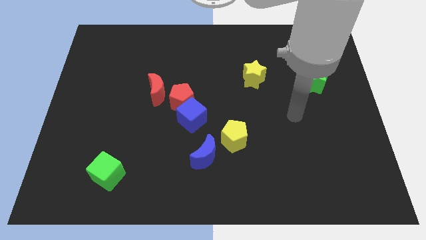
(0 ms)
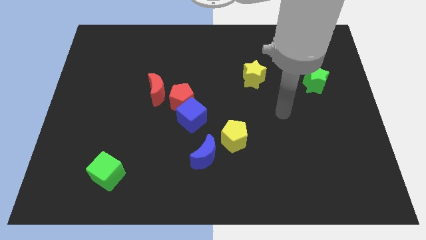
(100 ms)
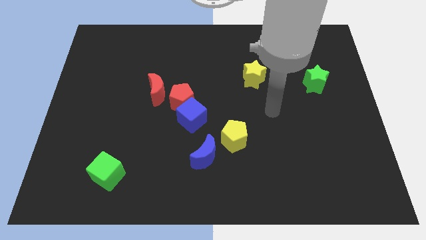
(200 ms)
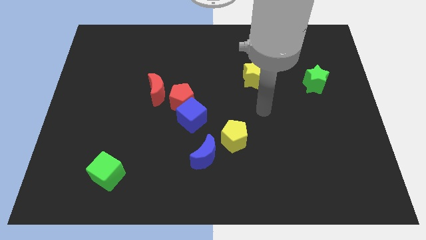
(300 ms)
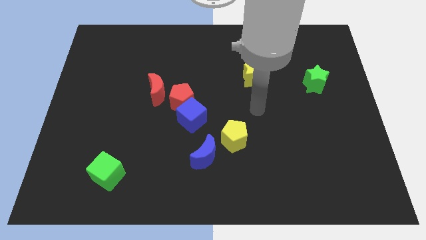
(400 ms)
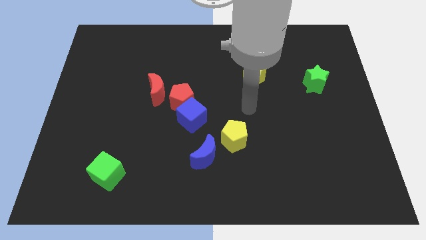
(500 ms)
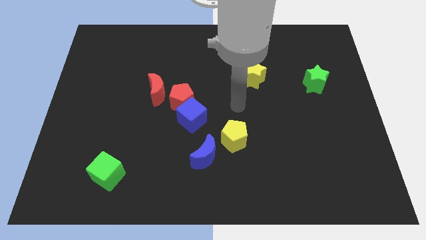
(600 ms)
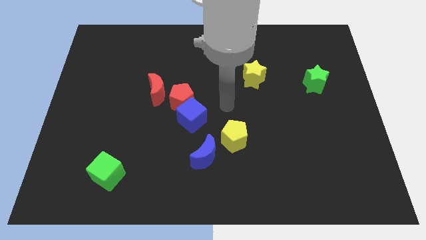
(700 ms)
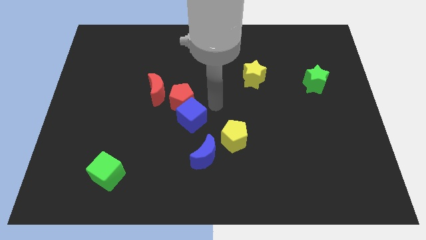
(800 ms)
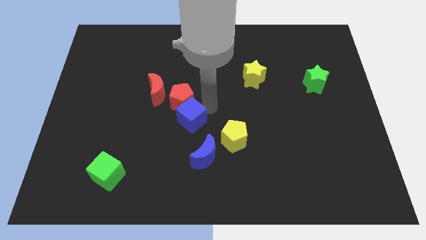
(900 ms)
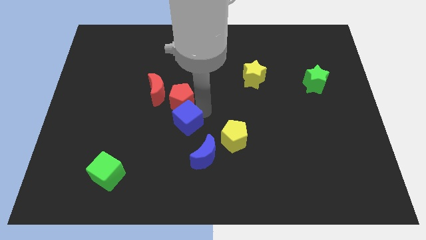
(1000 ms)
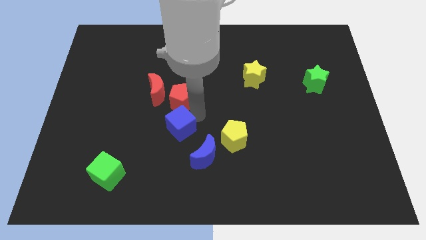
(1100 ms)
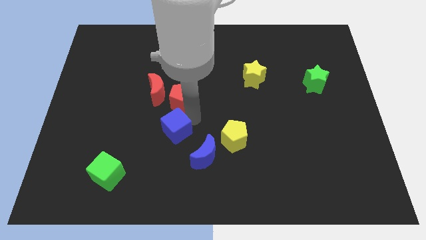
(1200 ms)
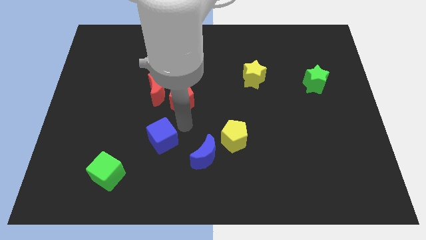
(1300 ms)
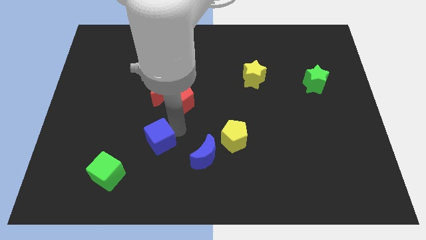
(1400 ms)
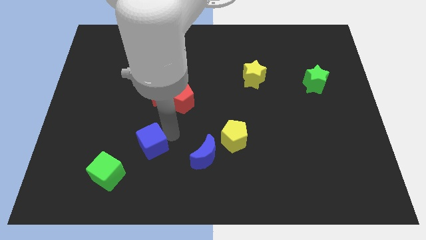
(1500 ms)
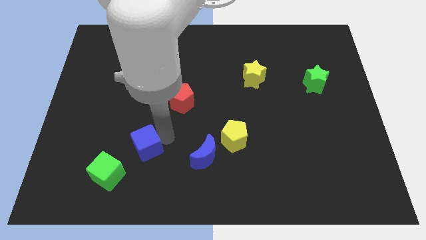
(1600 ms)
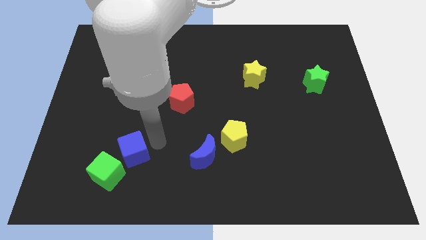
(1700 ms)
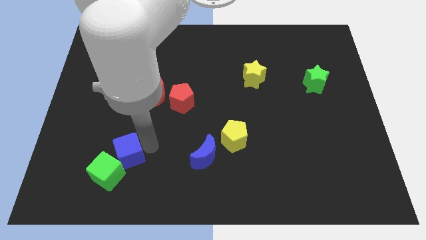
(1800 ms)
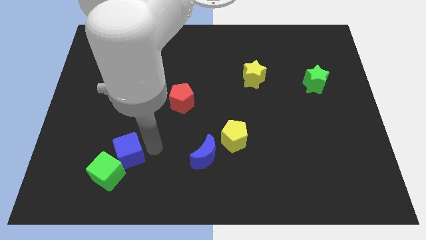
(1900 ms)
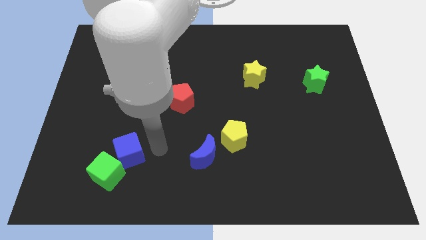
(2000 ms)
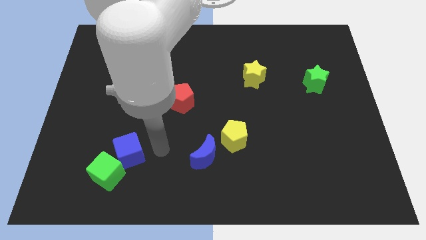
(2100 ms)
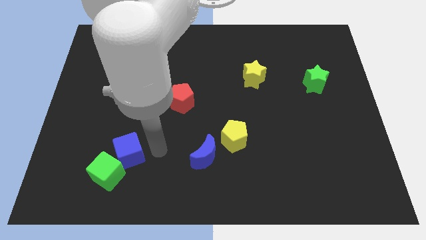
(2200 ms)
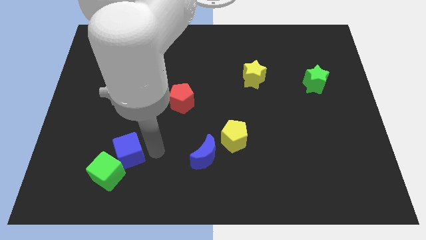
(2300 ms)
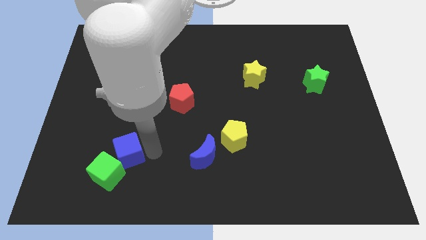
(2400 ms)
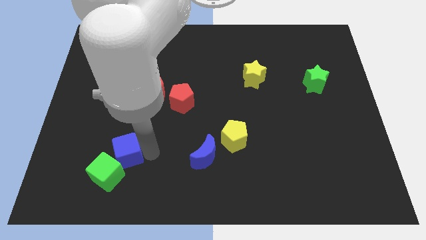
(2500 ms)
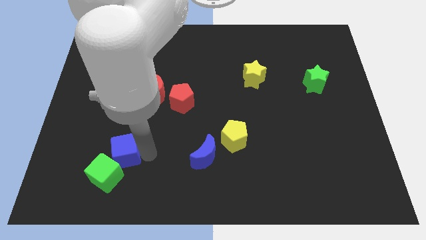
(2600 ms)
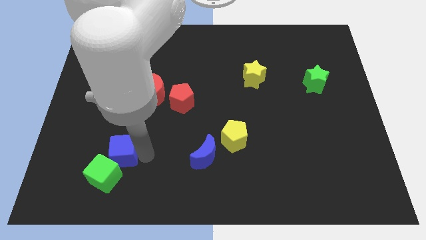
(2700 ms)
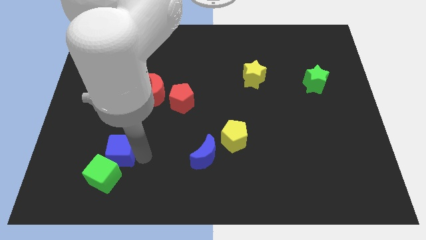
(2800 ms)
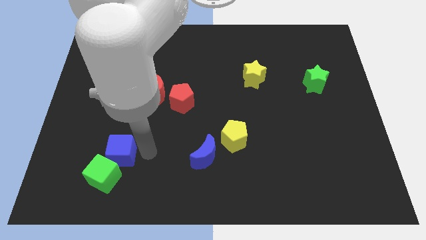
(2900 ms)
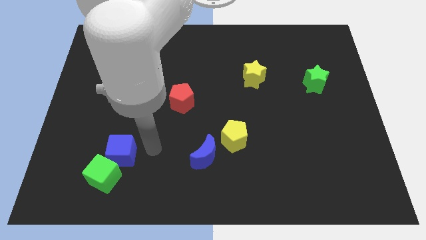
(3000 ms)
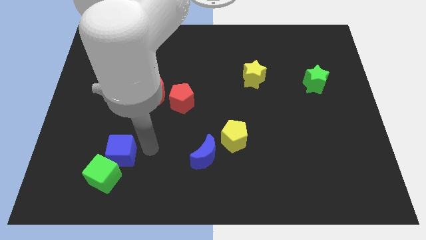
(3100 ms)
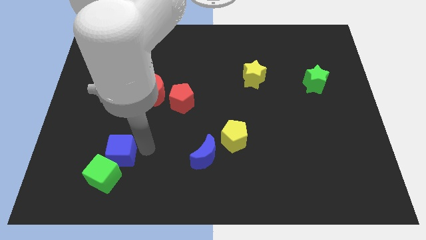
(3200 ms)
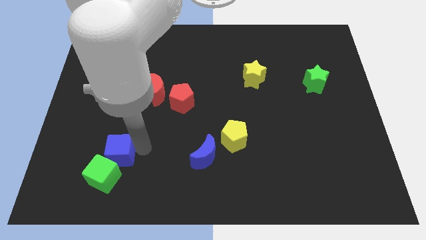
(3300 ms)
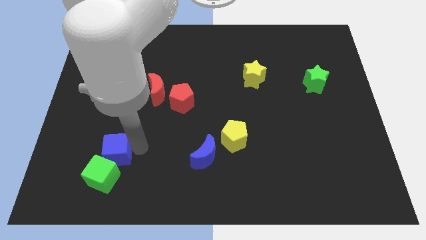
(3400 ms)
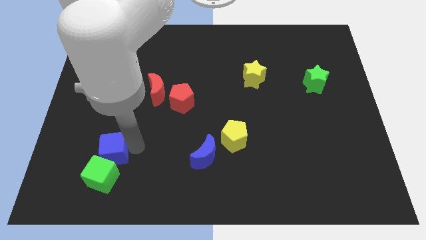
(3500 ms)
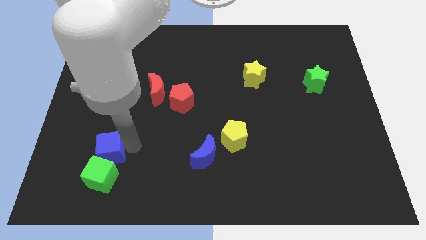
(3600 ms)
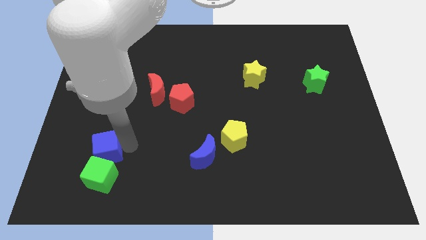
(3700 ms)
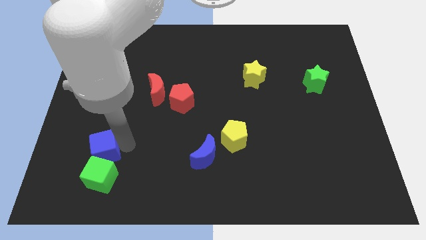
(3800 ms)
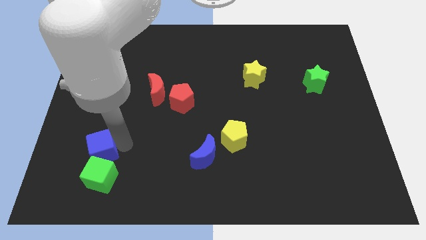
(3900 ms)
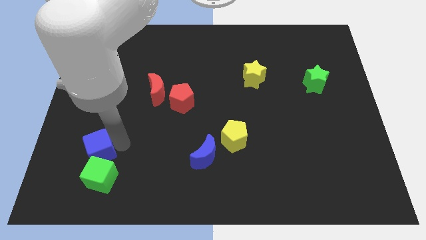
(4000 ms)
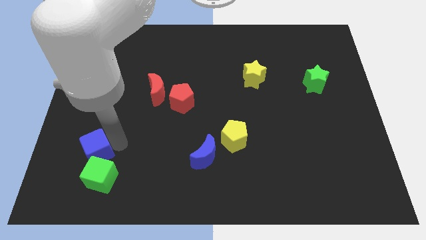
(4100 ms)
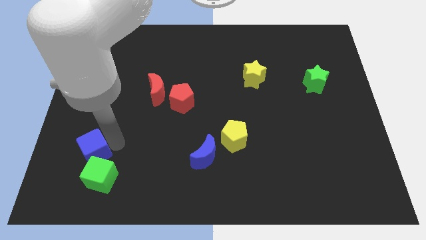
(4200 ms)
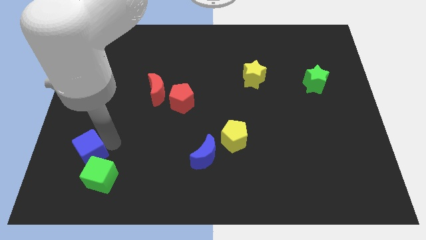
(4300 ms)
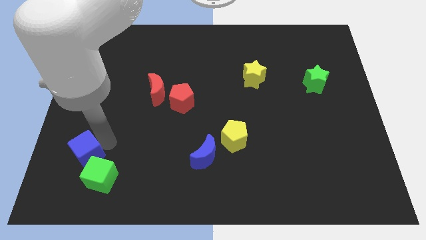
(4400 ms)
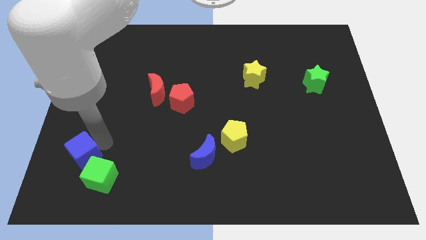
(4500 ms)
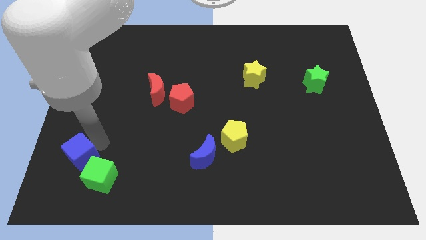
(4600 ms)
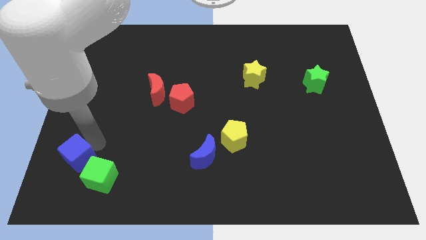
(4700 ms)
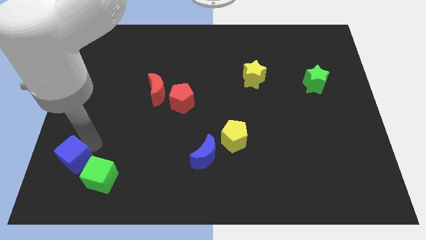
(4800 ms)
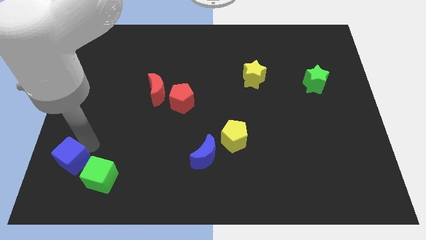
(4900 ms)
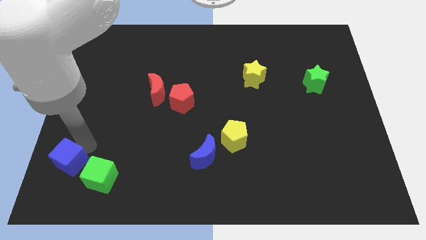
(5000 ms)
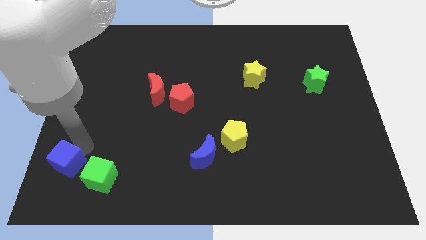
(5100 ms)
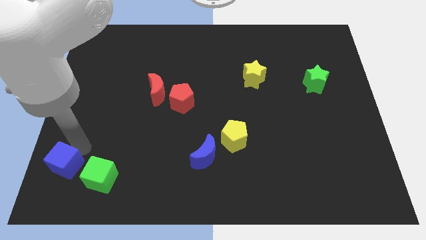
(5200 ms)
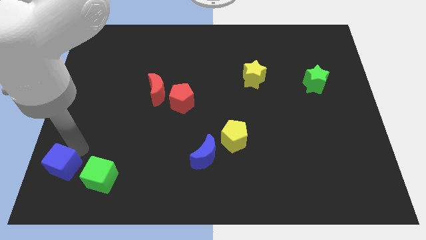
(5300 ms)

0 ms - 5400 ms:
put the blue cube to the bottom left

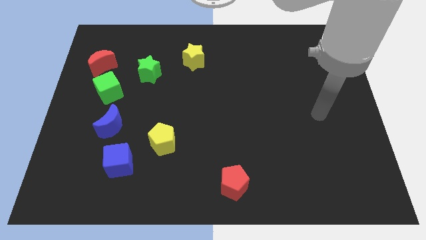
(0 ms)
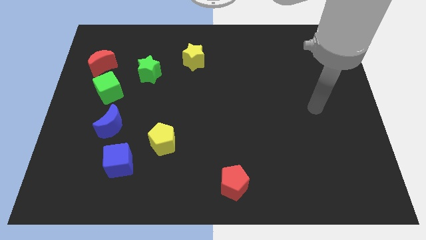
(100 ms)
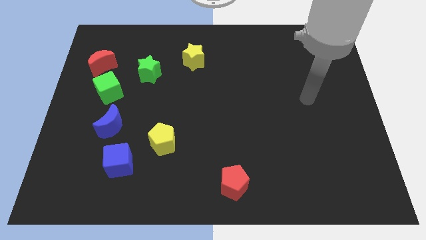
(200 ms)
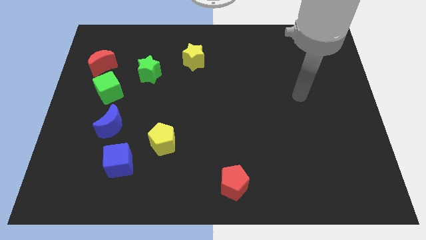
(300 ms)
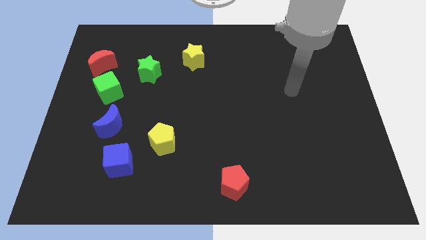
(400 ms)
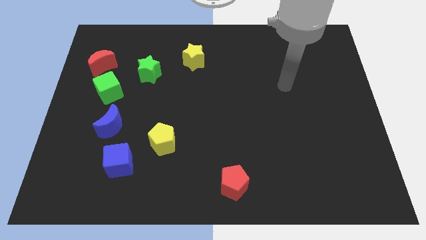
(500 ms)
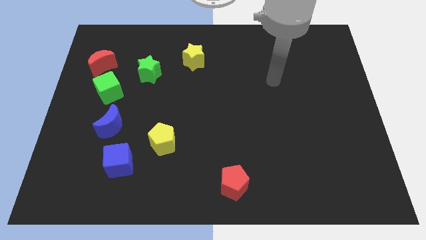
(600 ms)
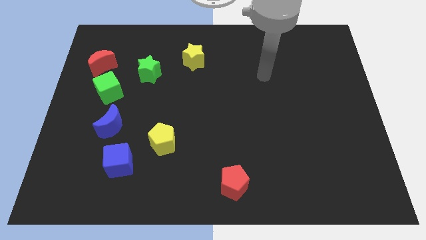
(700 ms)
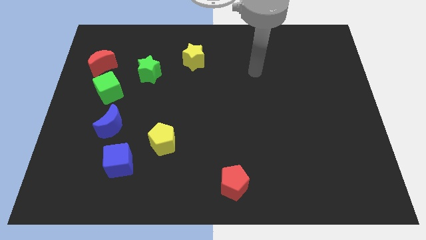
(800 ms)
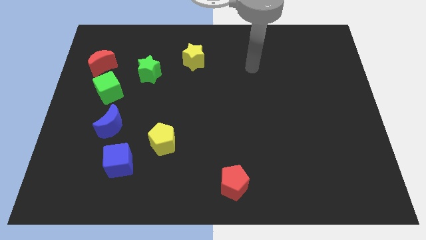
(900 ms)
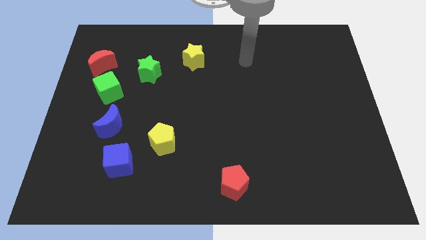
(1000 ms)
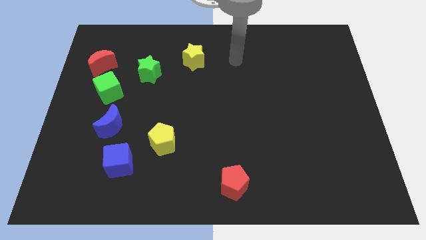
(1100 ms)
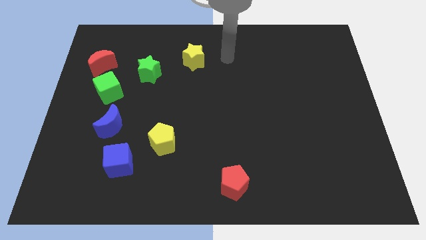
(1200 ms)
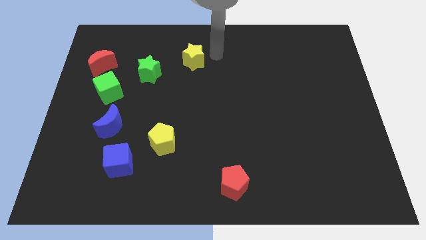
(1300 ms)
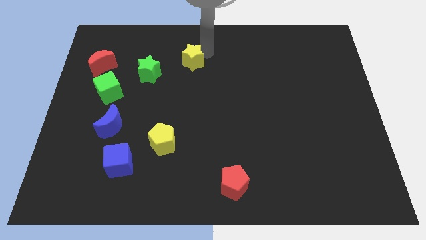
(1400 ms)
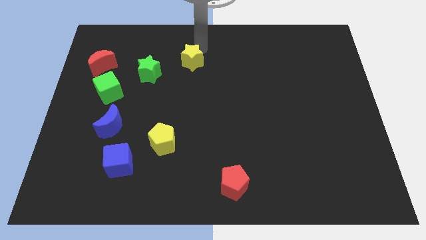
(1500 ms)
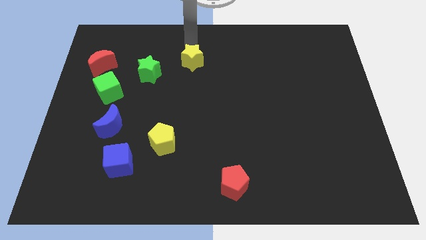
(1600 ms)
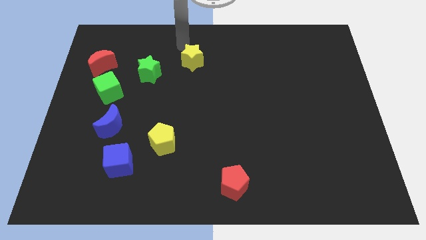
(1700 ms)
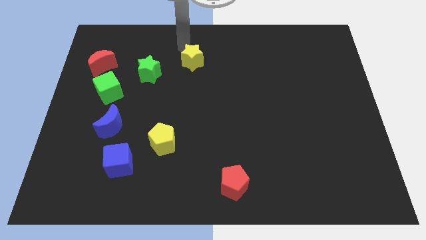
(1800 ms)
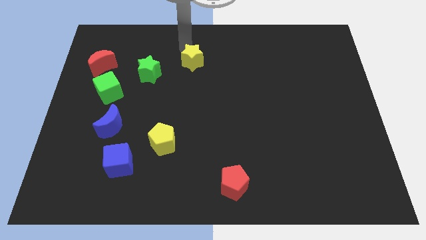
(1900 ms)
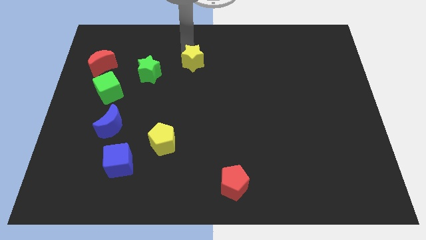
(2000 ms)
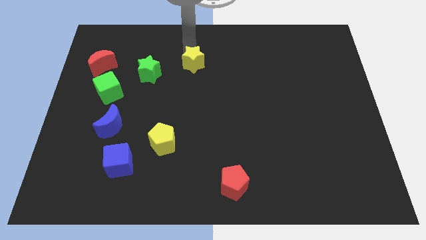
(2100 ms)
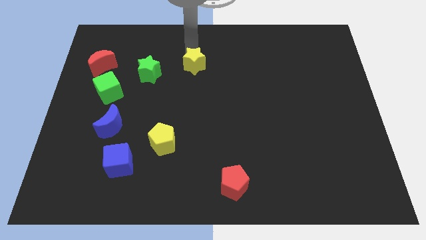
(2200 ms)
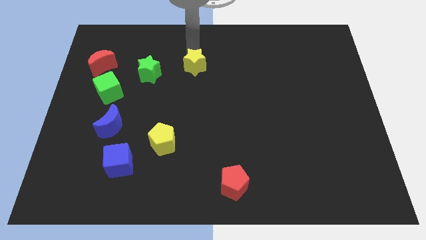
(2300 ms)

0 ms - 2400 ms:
put the yellow star to the center

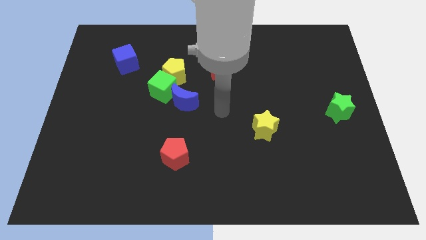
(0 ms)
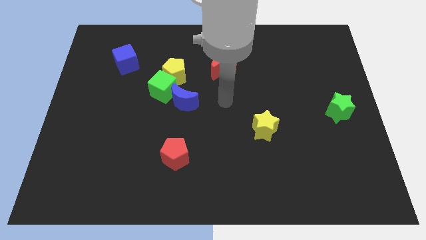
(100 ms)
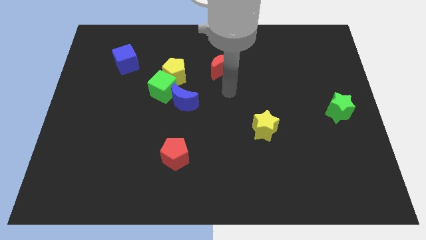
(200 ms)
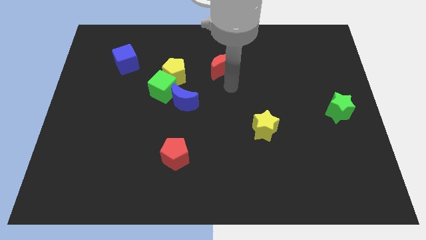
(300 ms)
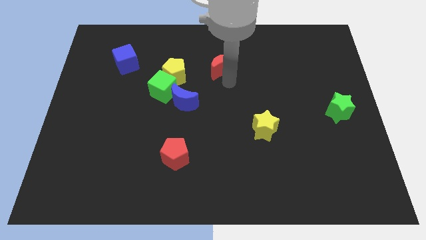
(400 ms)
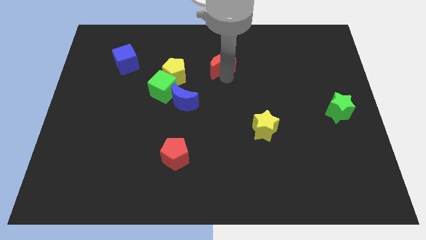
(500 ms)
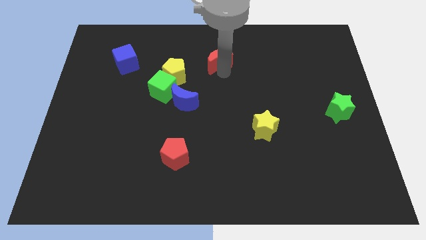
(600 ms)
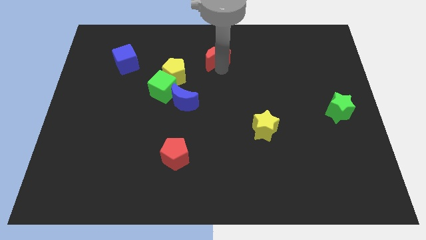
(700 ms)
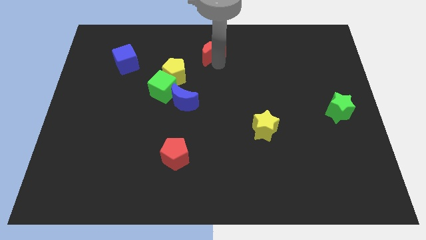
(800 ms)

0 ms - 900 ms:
push the red moon to the top side
